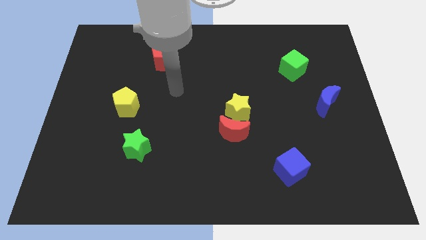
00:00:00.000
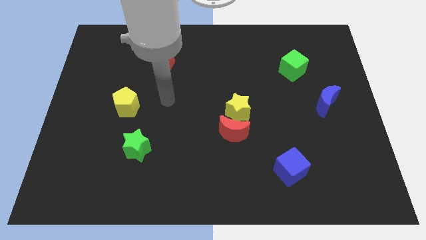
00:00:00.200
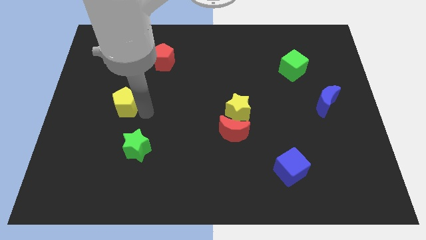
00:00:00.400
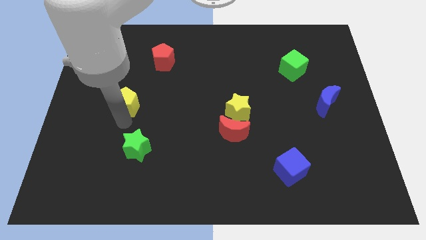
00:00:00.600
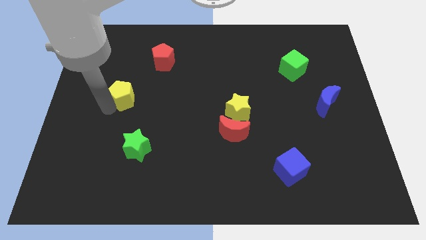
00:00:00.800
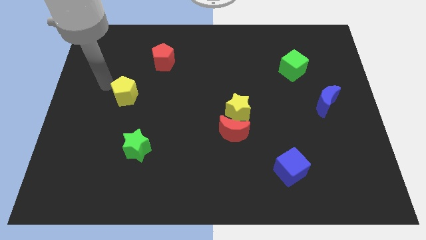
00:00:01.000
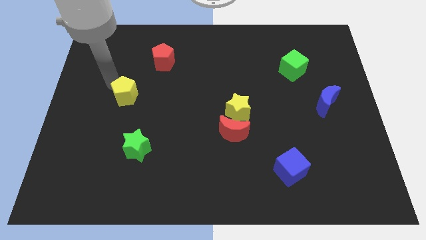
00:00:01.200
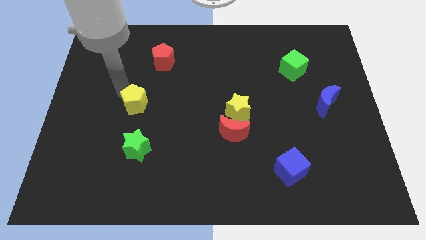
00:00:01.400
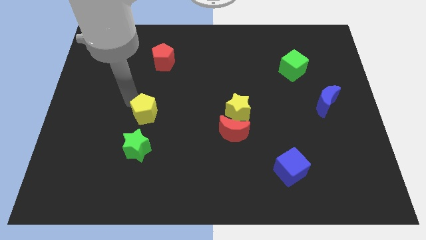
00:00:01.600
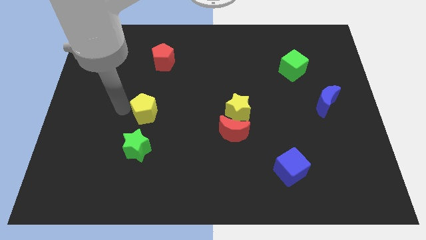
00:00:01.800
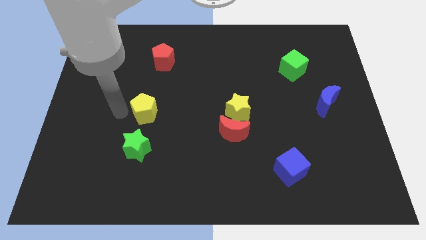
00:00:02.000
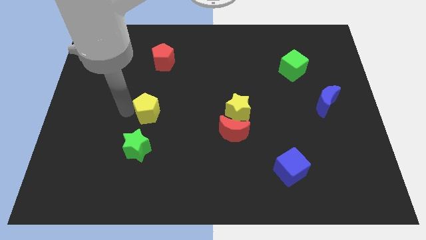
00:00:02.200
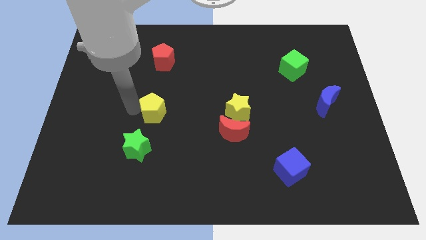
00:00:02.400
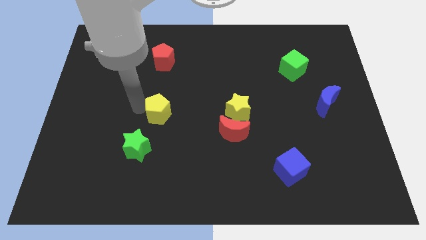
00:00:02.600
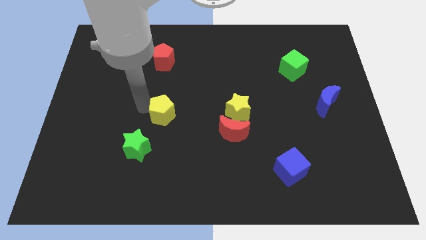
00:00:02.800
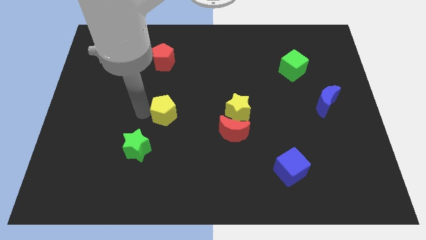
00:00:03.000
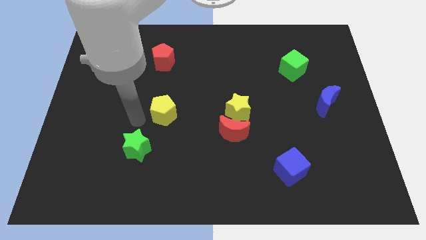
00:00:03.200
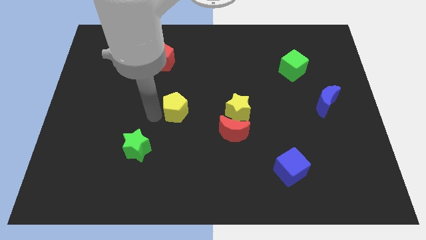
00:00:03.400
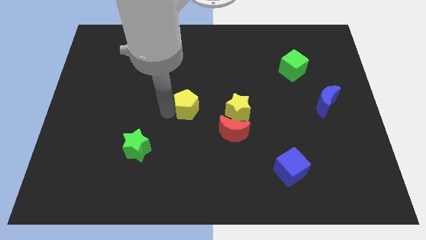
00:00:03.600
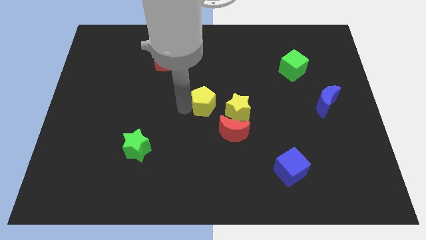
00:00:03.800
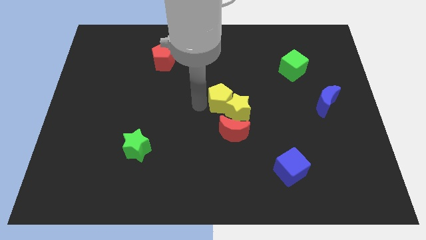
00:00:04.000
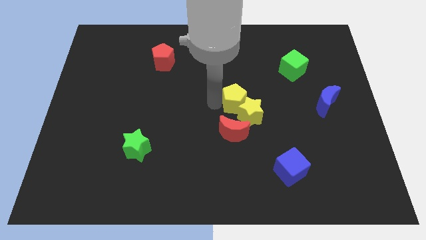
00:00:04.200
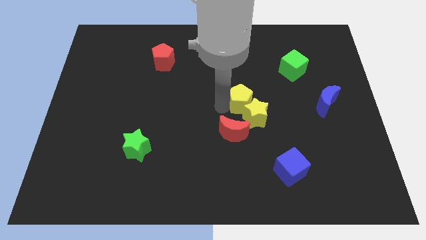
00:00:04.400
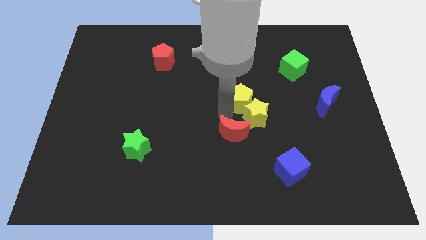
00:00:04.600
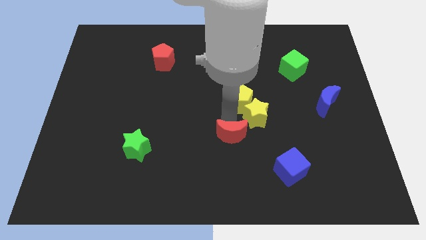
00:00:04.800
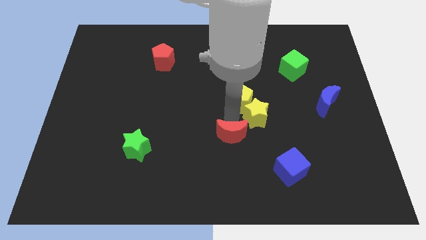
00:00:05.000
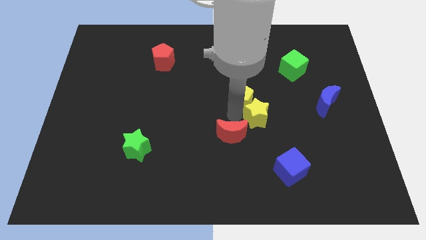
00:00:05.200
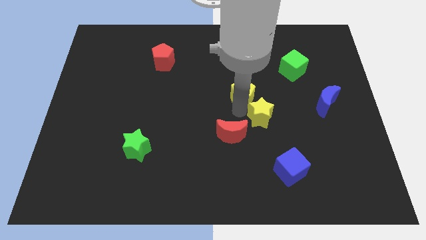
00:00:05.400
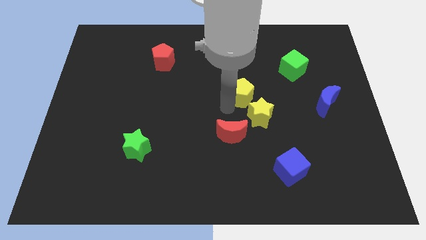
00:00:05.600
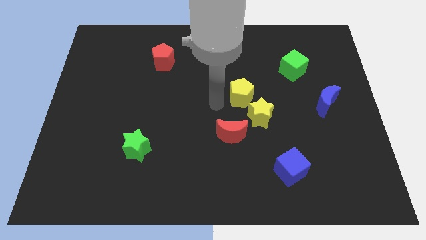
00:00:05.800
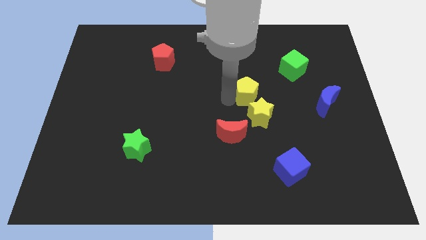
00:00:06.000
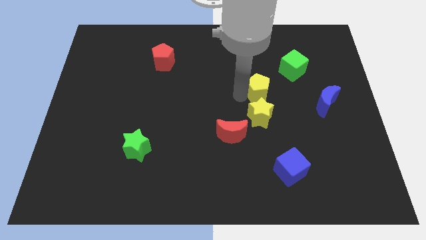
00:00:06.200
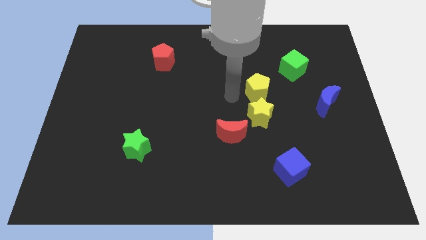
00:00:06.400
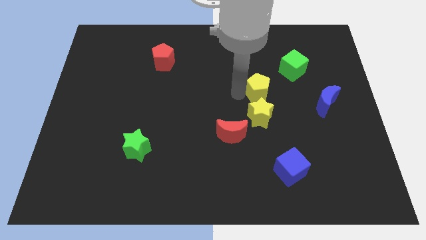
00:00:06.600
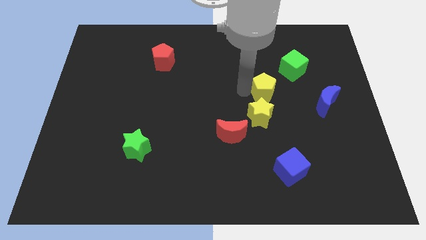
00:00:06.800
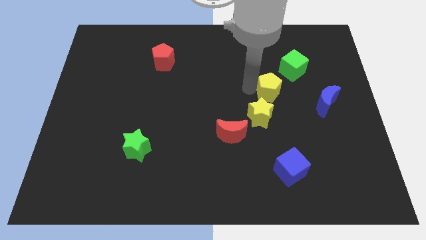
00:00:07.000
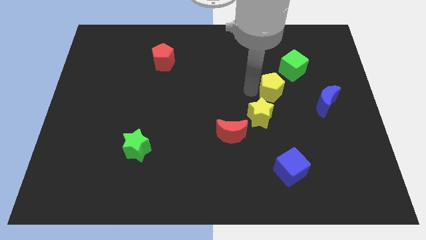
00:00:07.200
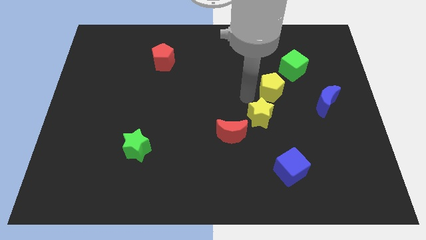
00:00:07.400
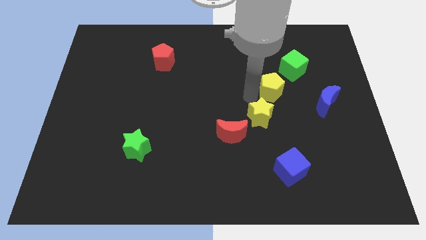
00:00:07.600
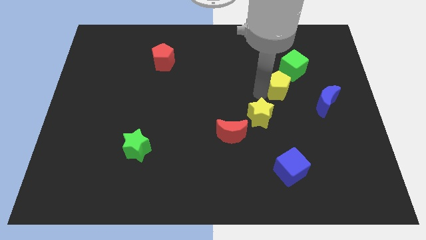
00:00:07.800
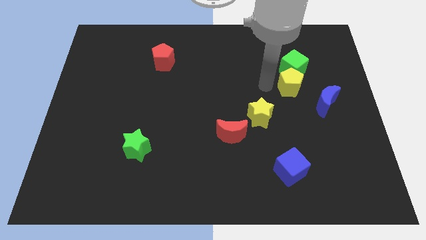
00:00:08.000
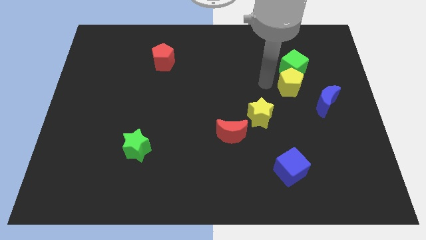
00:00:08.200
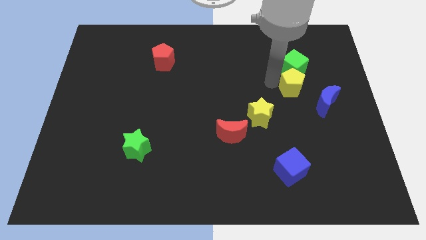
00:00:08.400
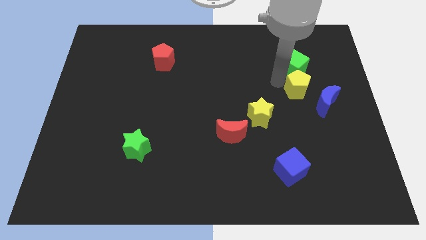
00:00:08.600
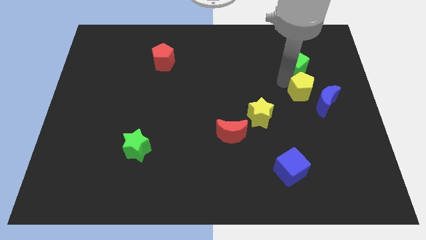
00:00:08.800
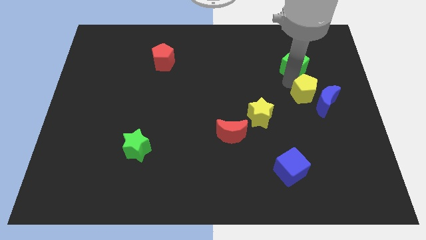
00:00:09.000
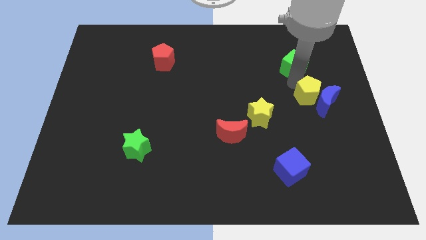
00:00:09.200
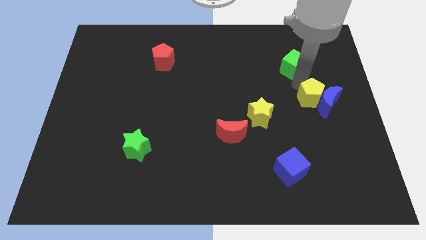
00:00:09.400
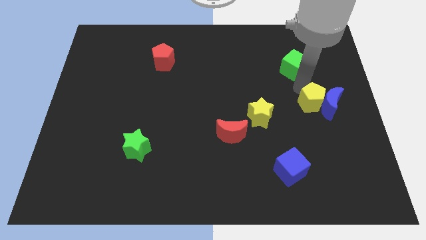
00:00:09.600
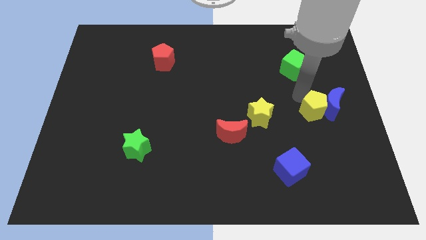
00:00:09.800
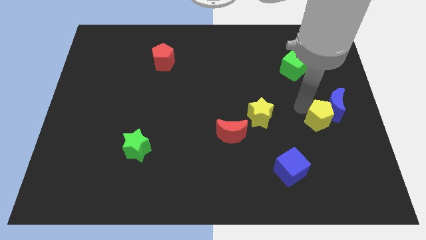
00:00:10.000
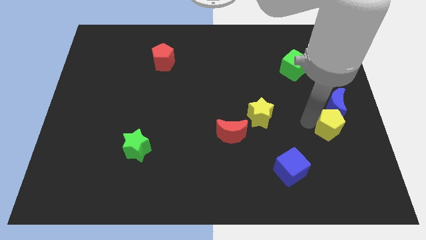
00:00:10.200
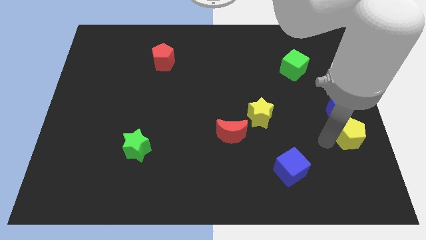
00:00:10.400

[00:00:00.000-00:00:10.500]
slide the yellow pentagon to the center right
